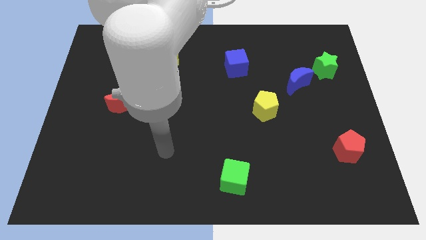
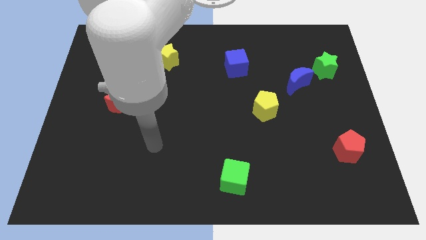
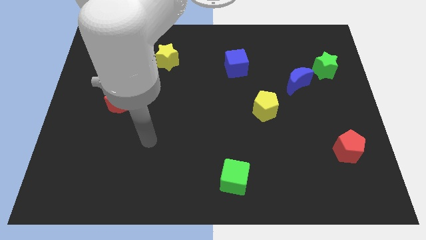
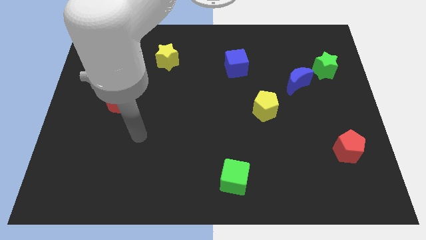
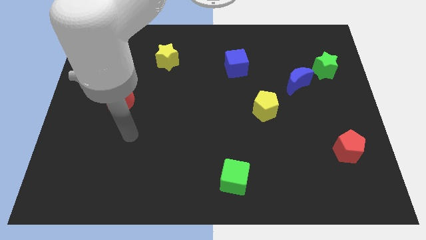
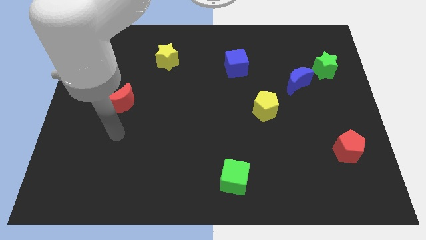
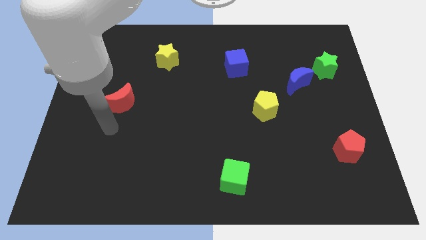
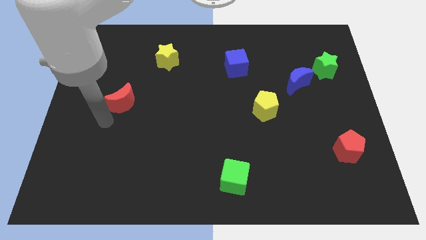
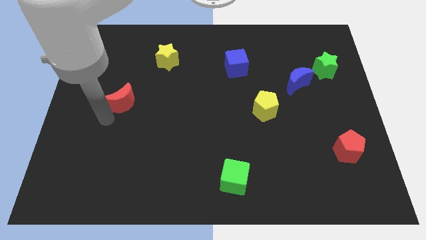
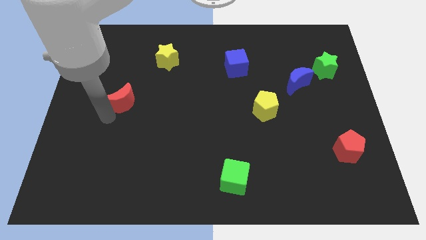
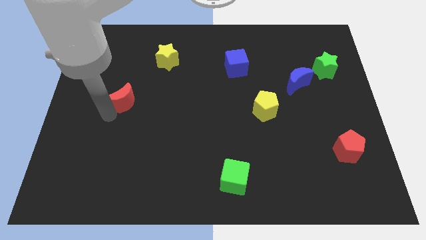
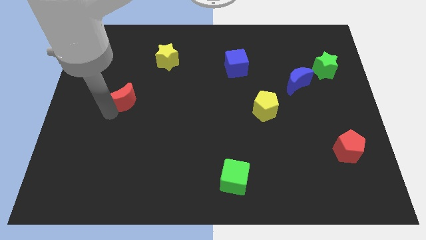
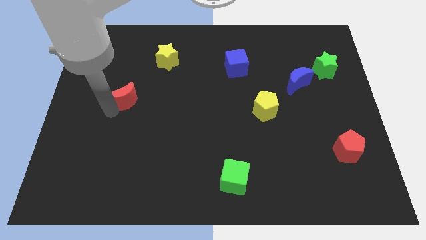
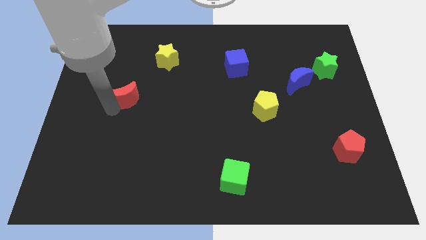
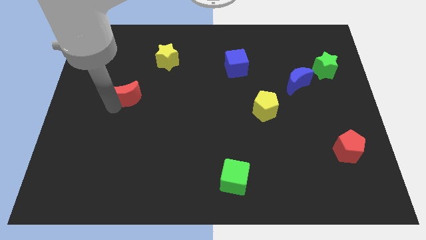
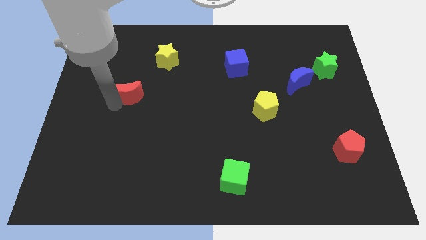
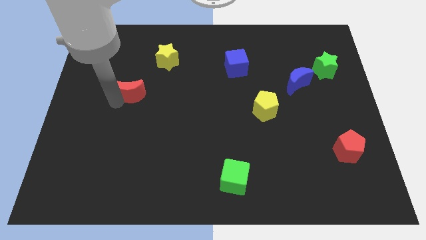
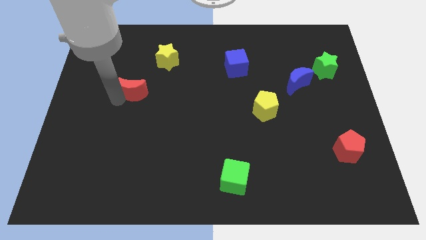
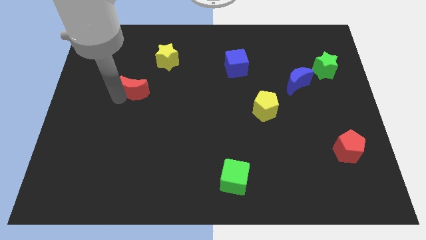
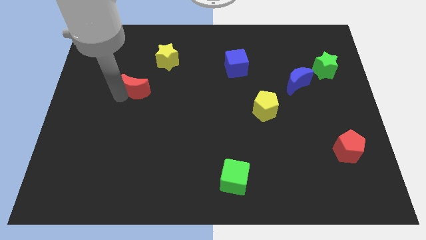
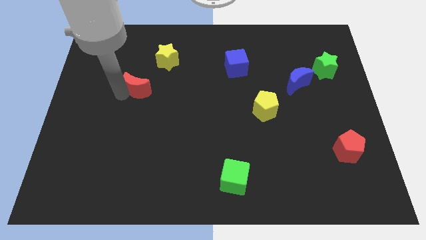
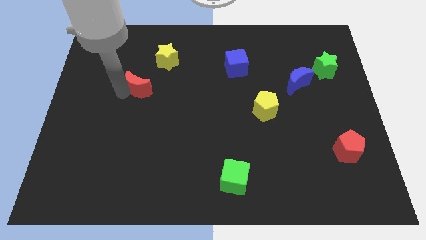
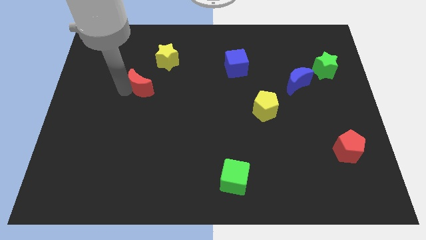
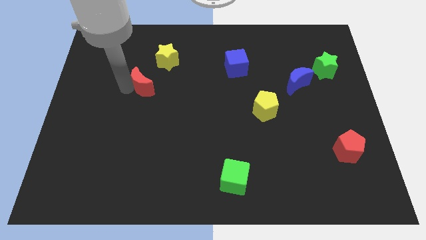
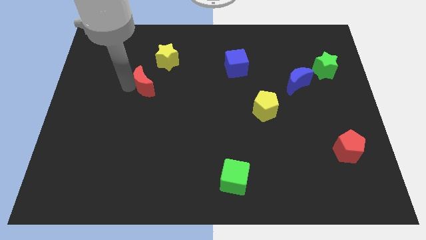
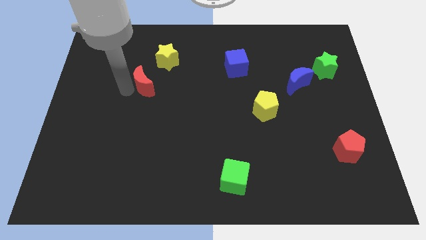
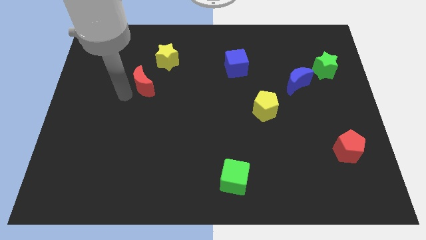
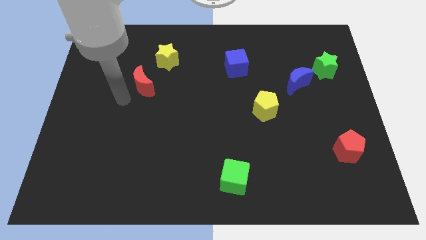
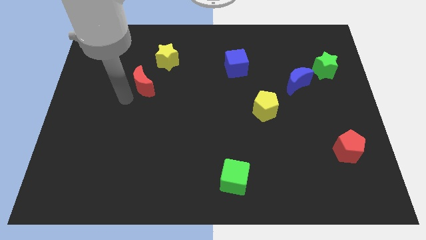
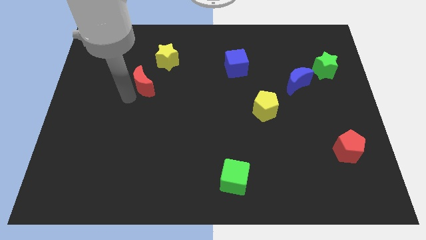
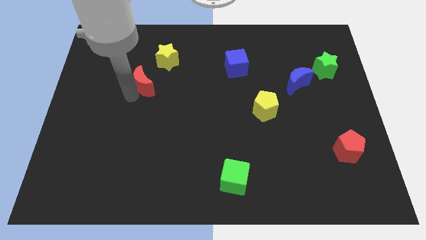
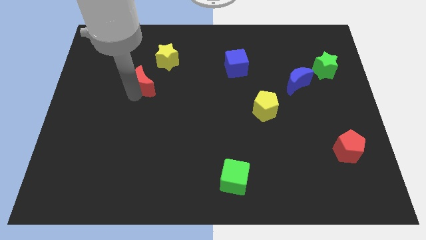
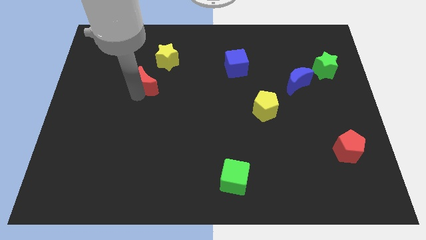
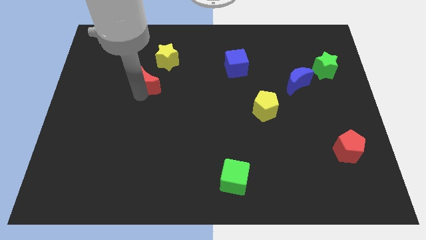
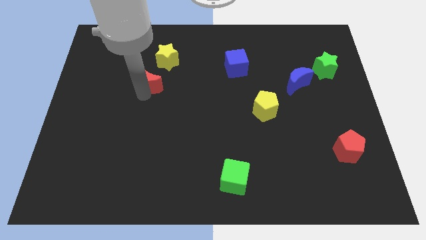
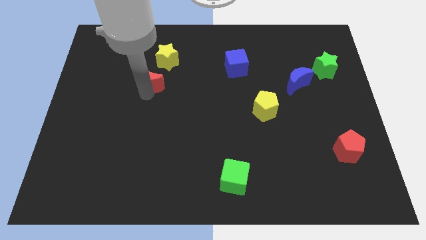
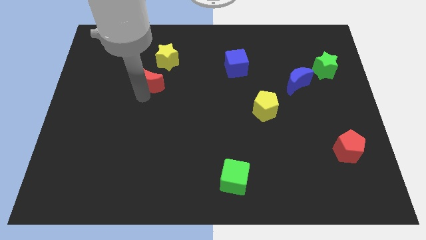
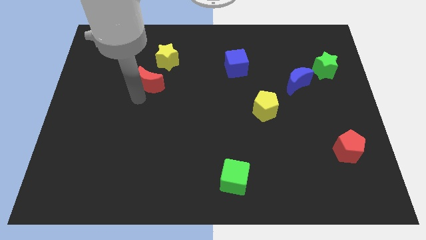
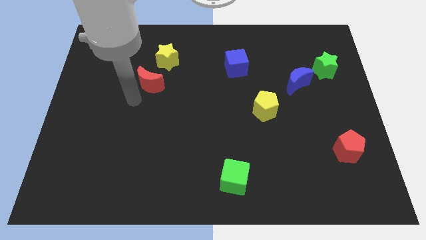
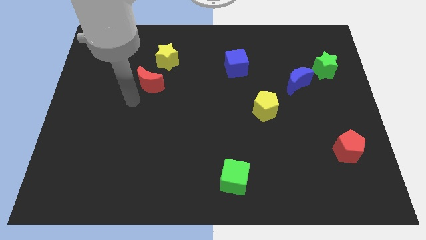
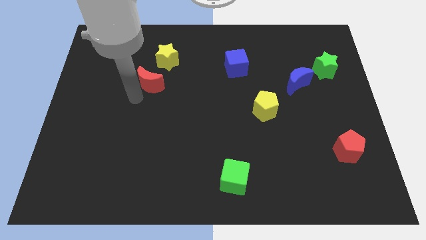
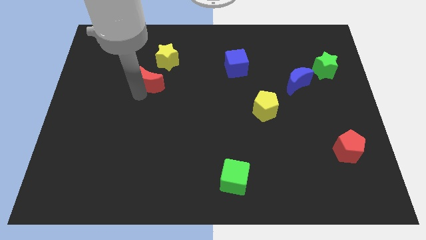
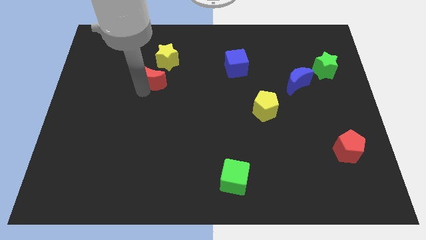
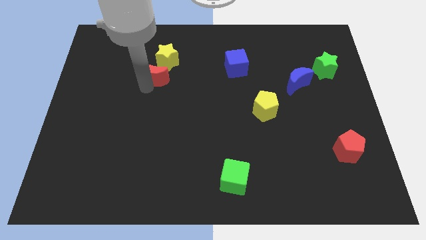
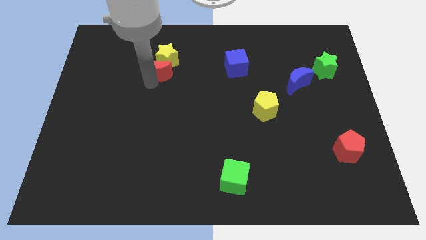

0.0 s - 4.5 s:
slide the red moon to the yellow star

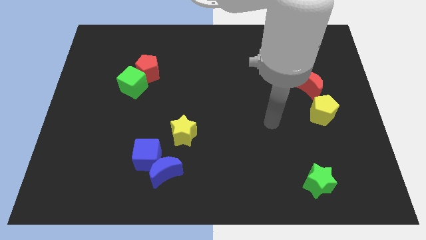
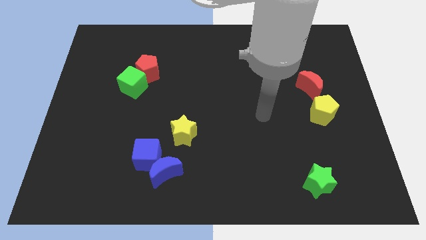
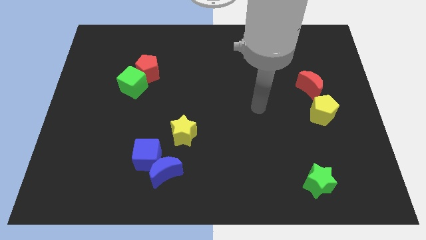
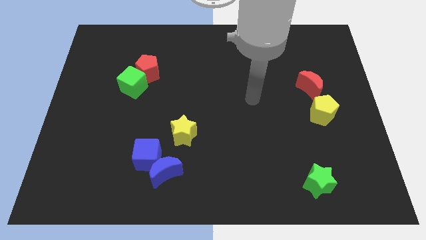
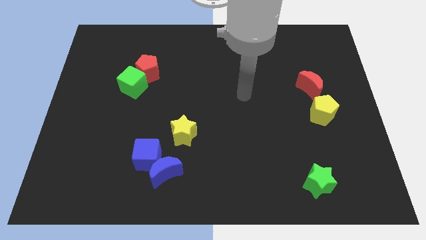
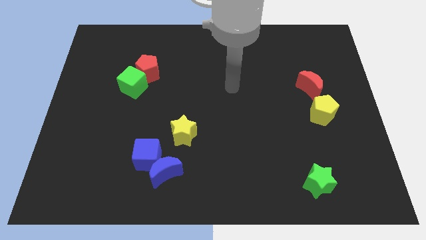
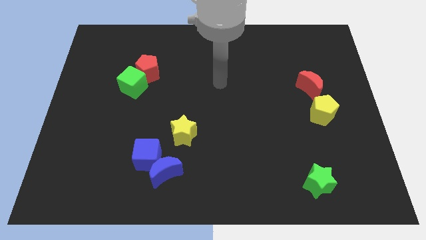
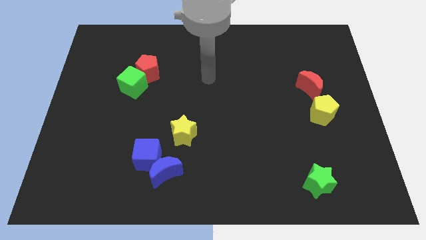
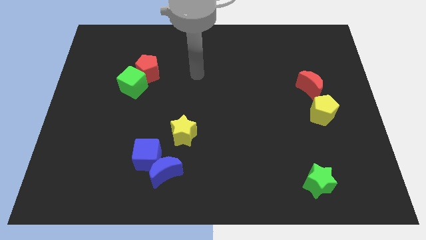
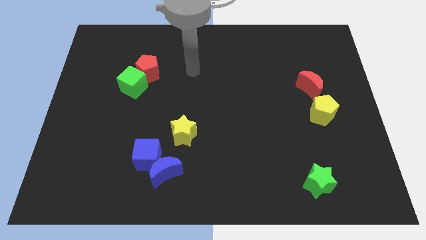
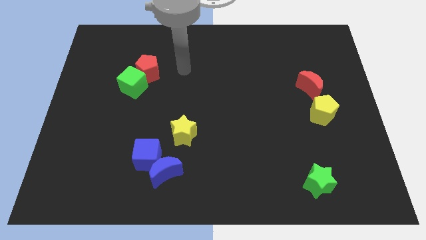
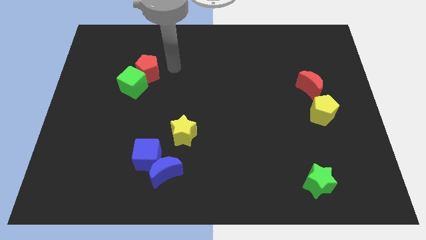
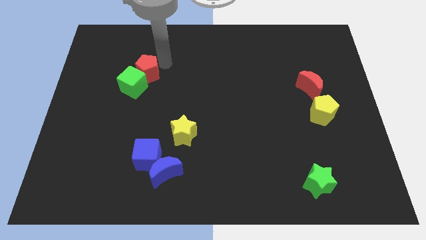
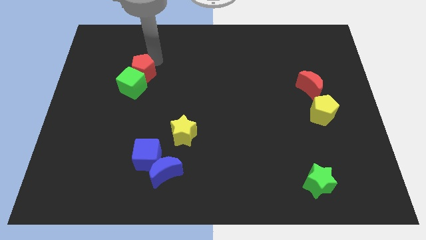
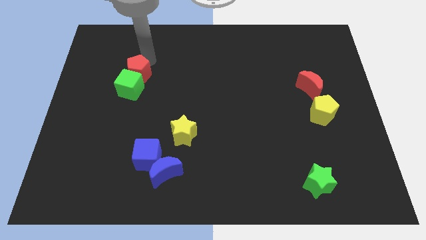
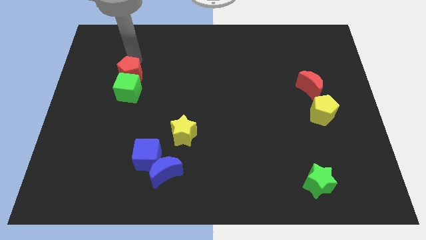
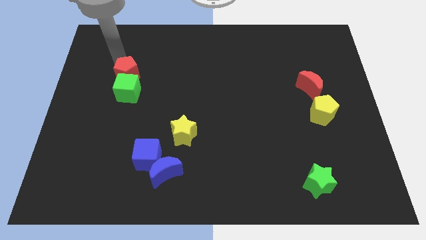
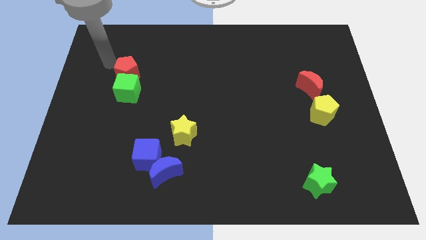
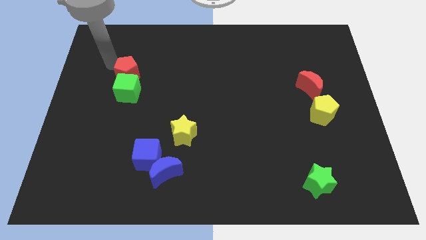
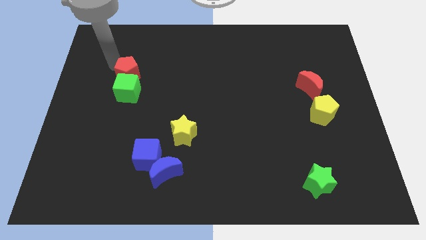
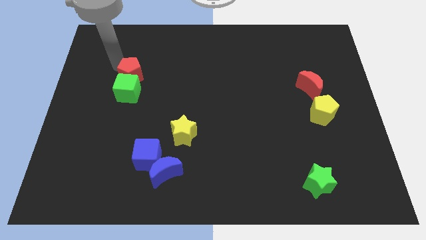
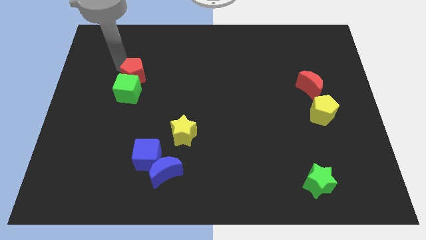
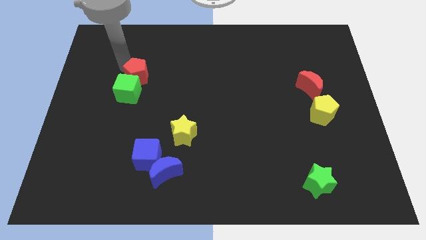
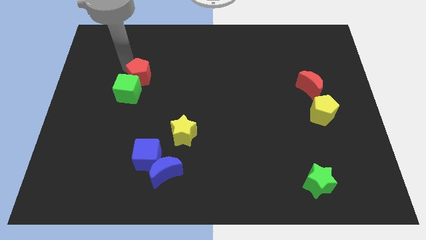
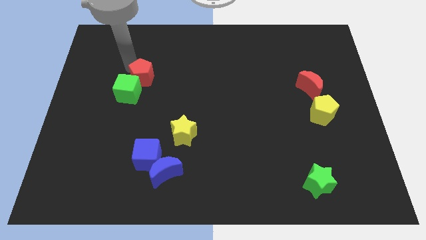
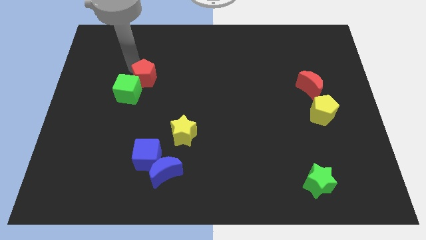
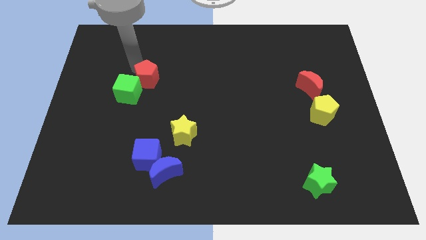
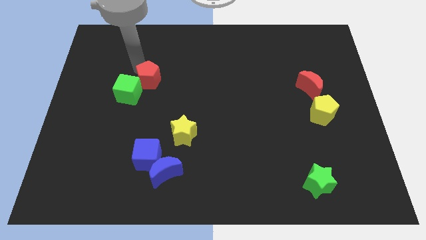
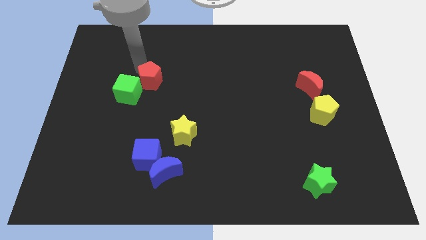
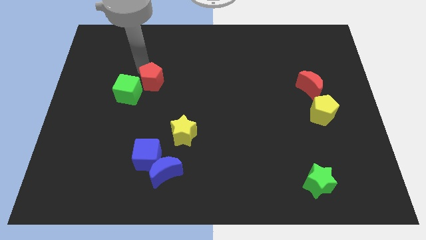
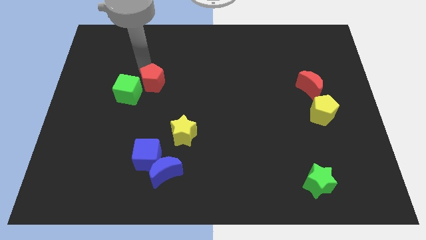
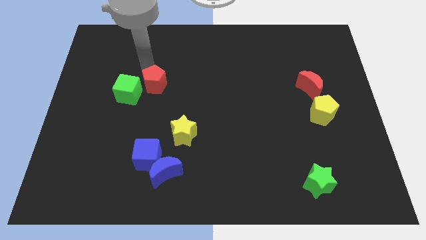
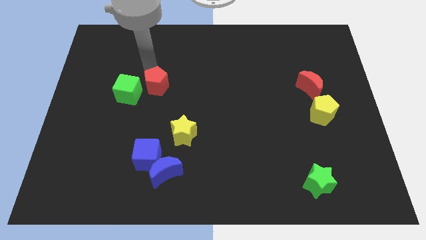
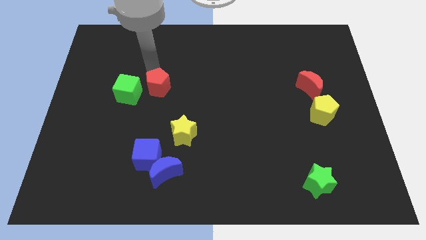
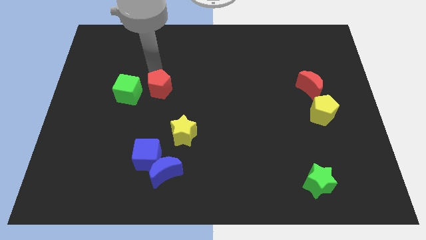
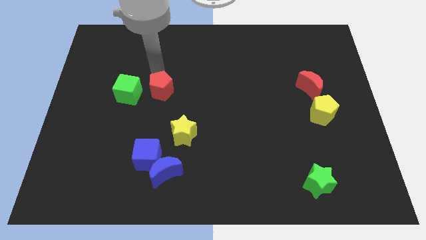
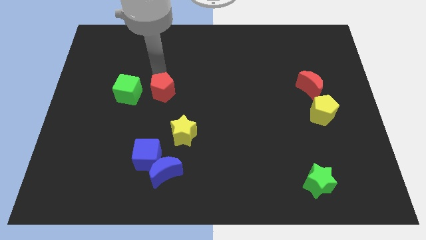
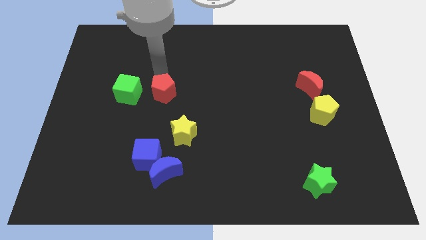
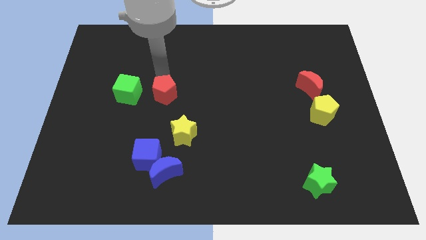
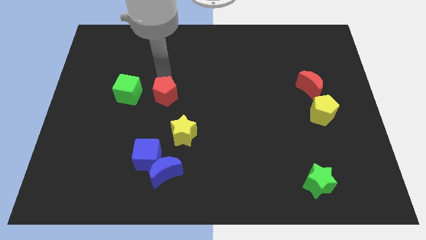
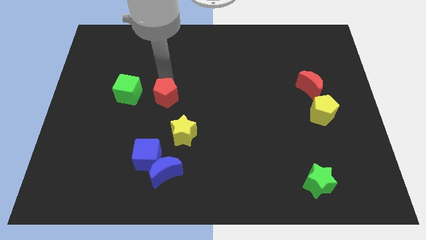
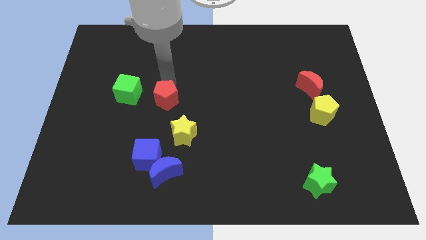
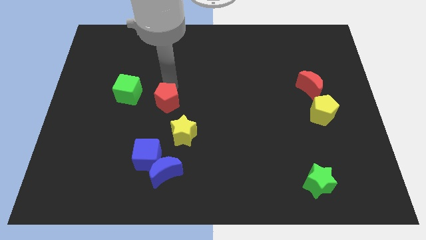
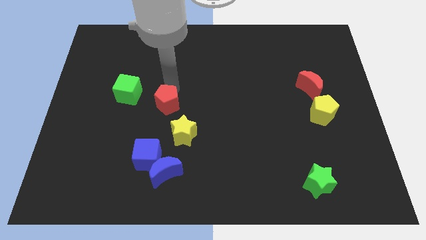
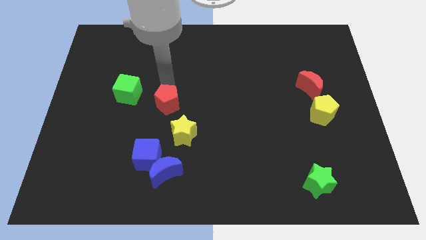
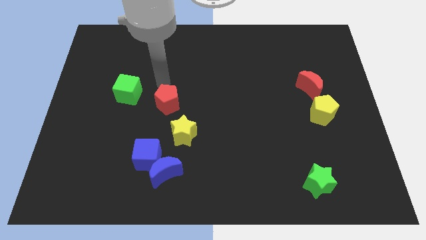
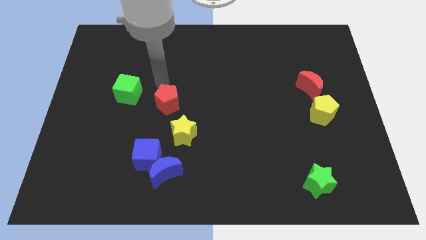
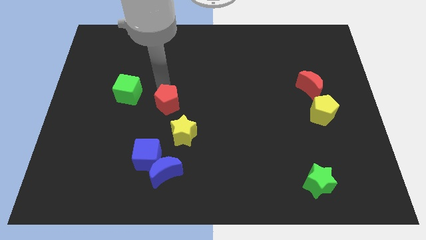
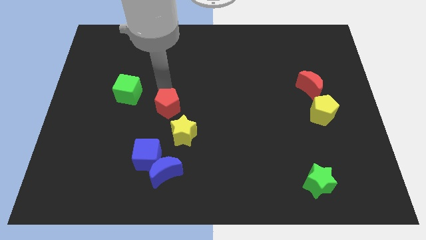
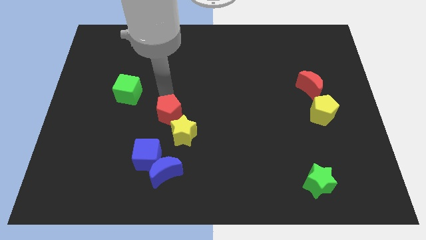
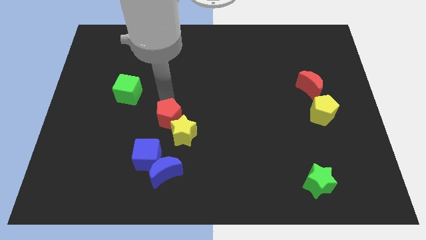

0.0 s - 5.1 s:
slide the red pentagon close to the yellow star
